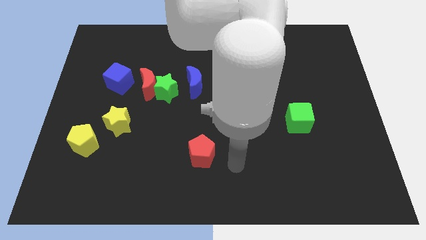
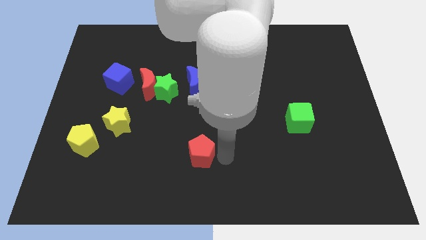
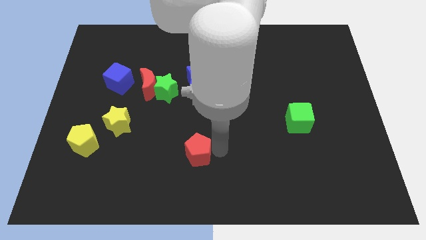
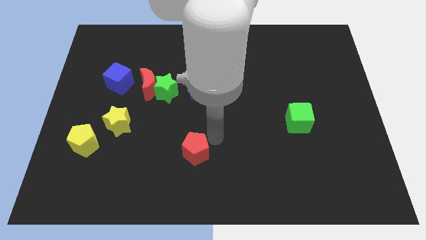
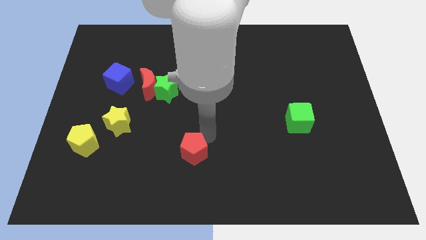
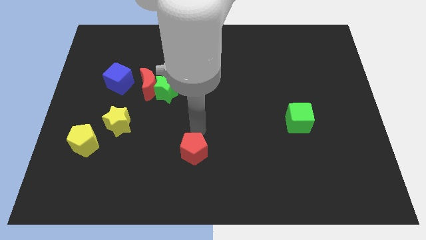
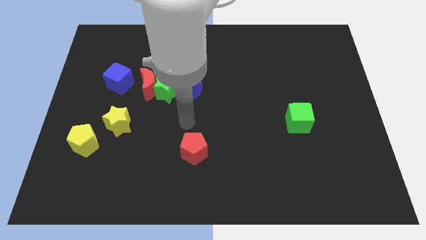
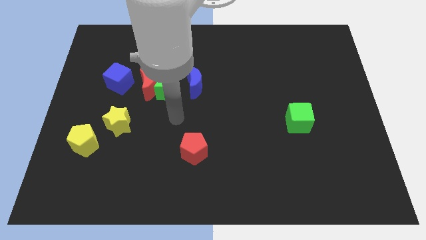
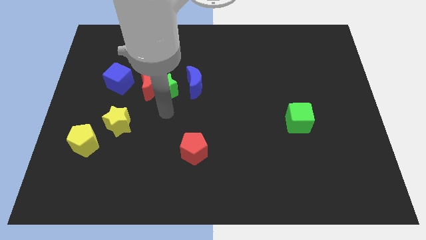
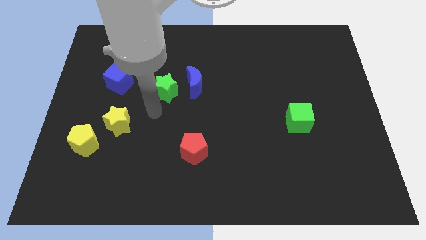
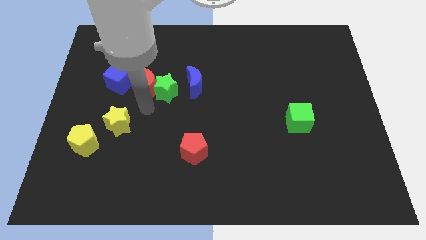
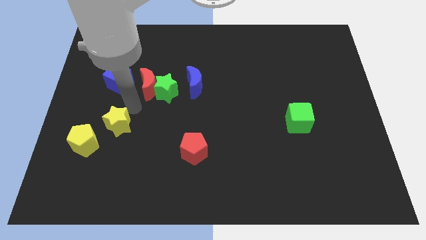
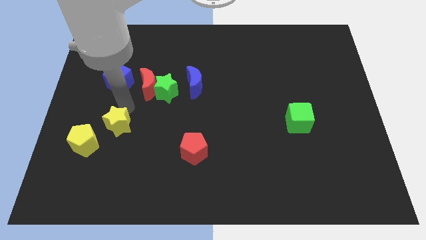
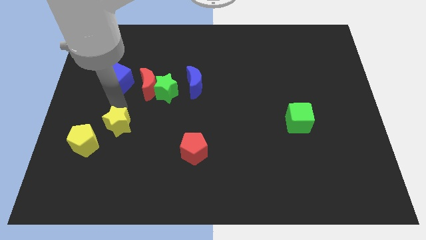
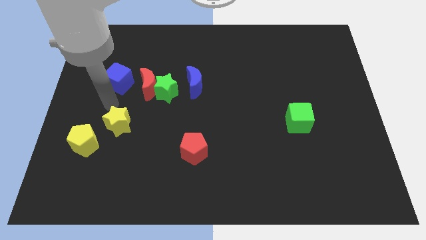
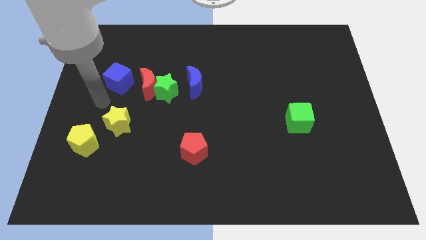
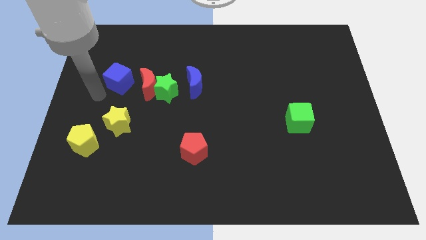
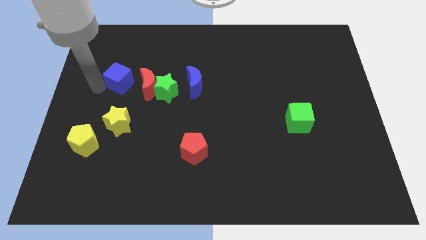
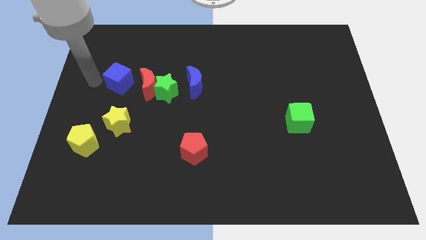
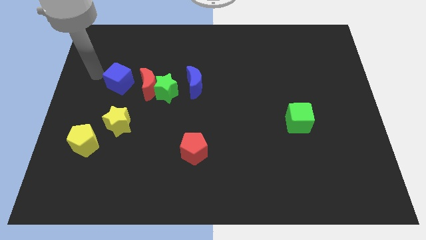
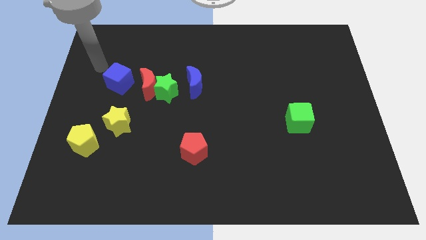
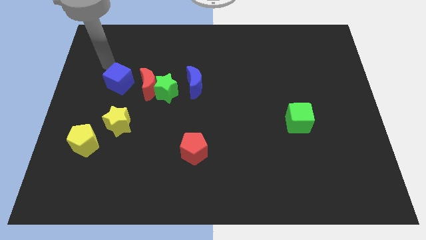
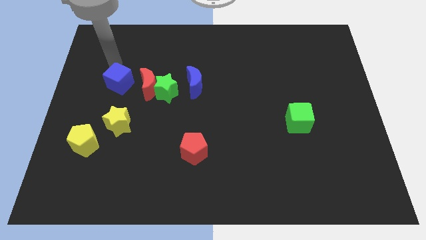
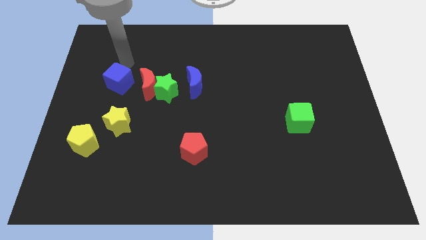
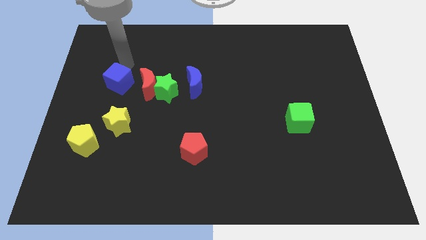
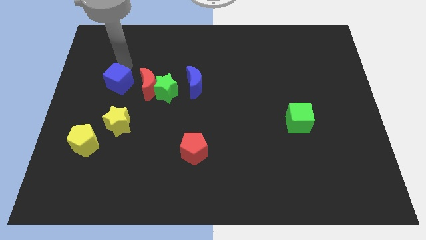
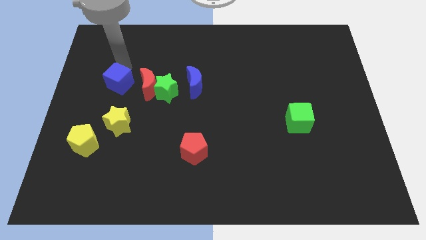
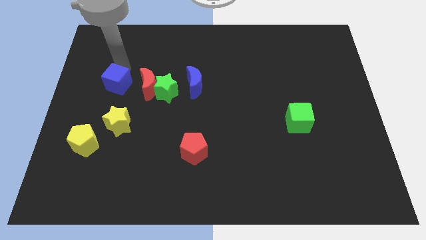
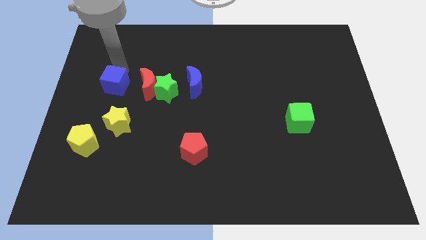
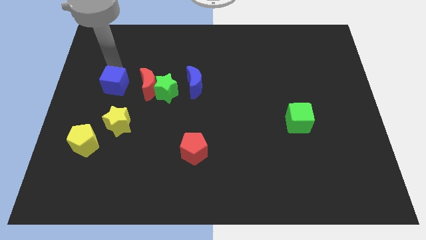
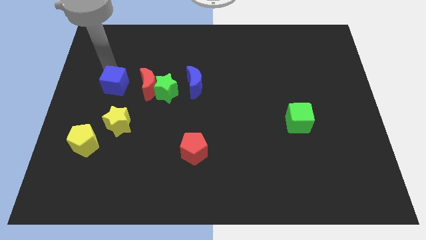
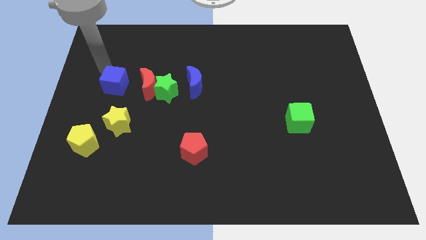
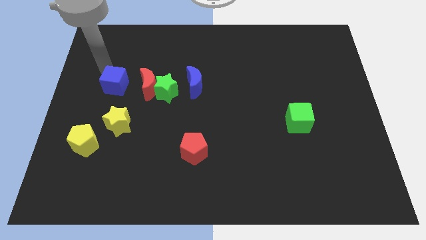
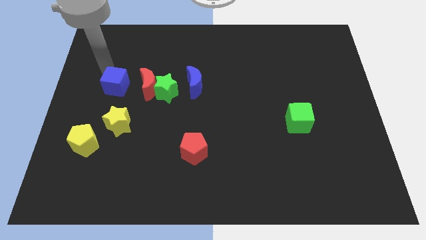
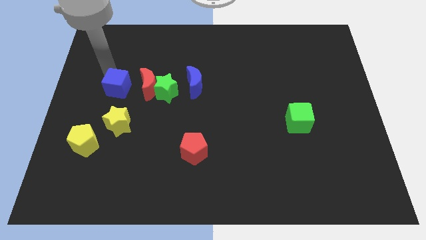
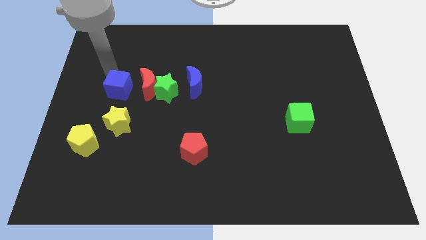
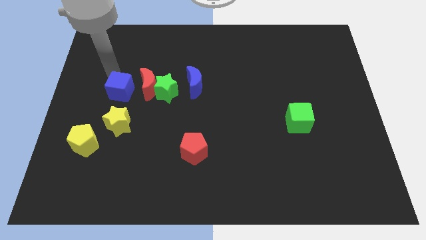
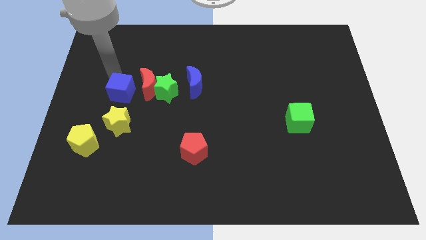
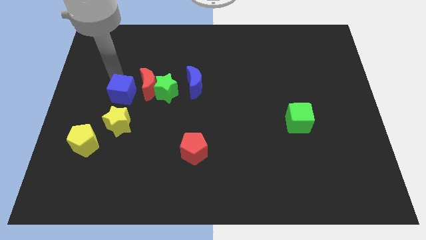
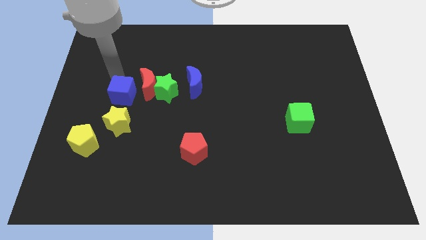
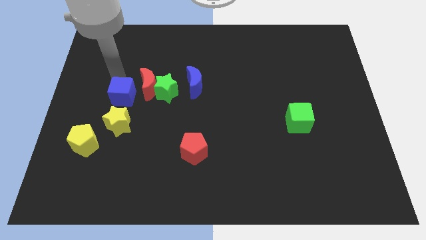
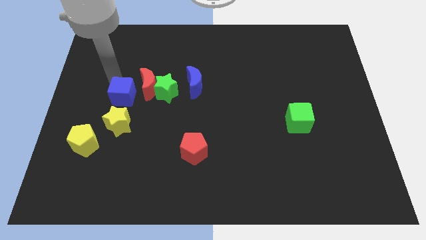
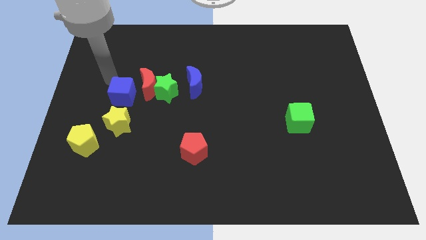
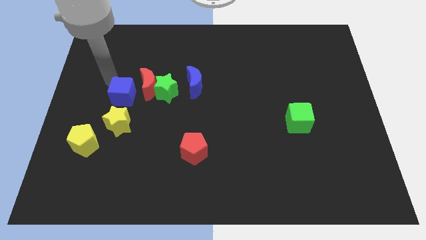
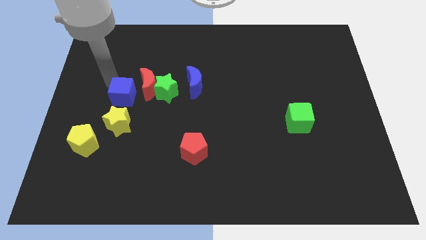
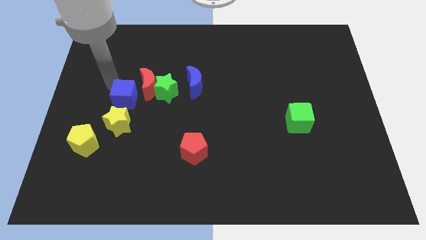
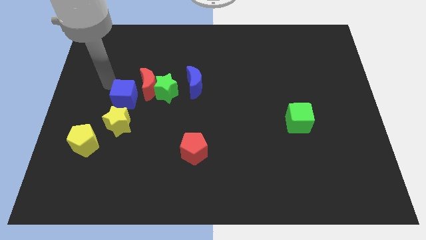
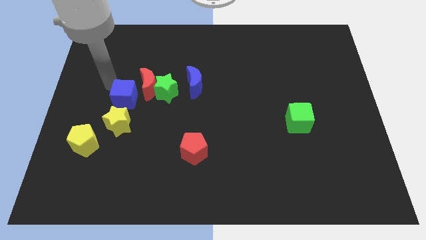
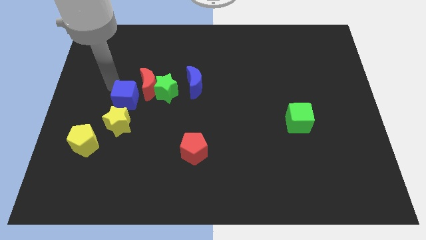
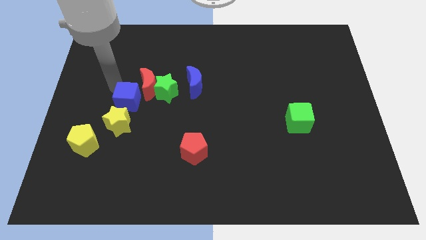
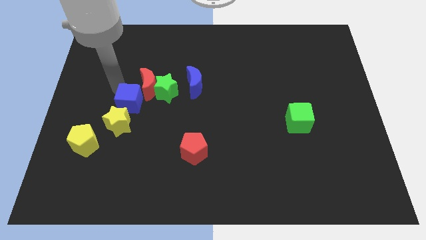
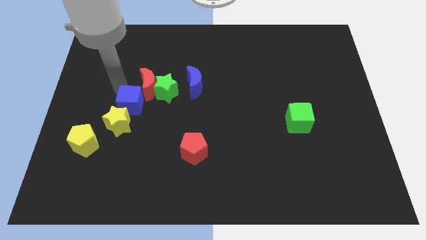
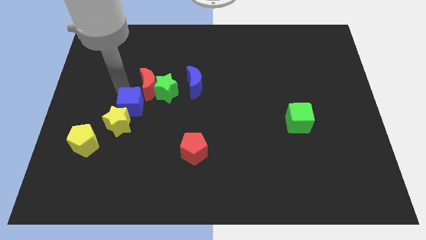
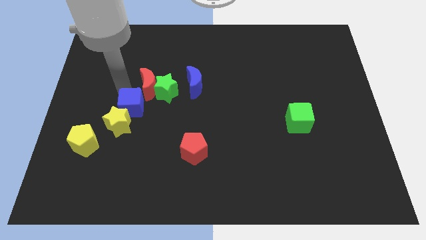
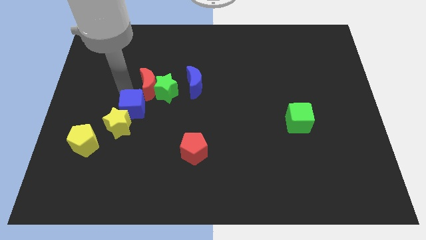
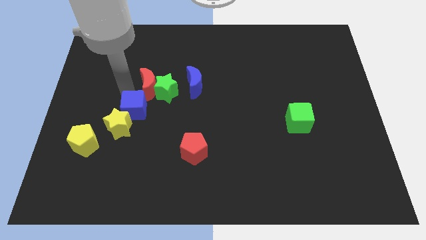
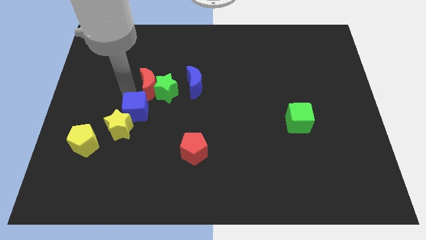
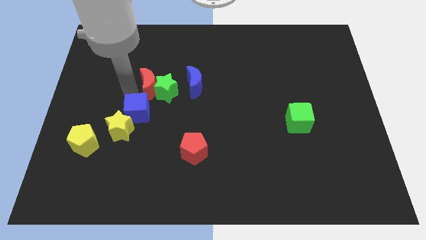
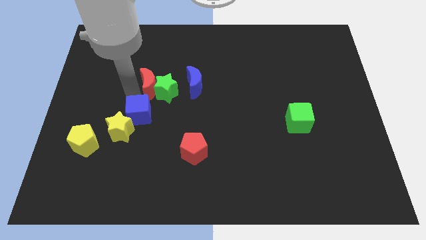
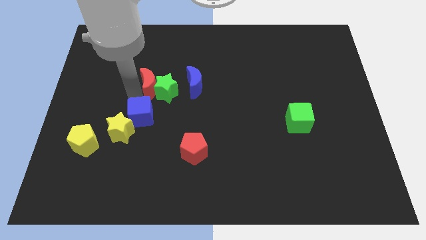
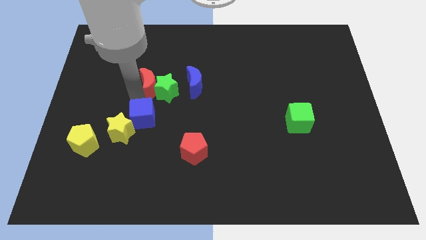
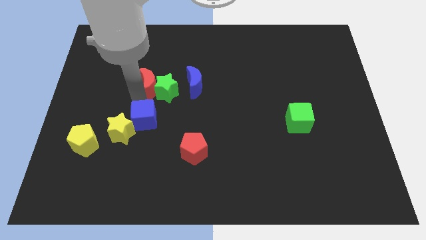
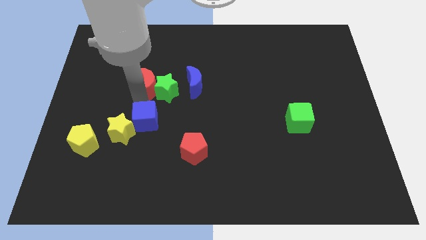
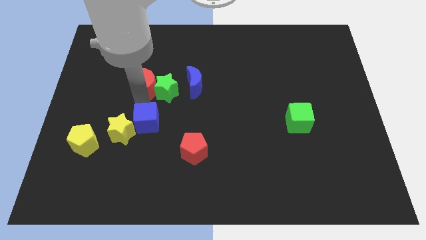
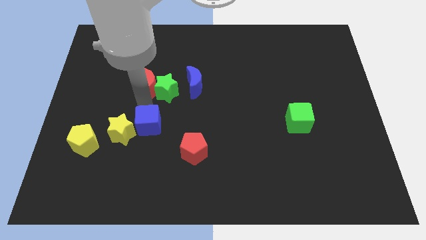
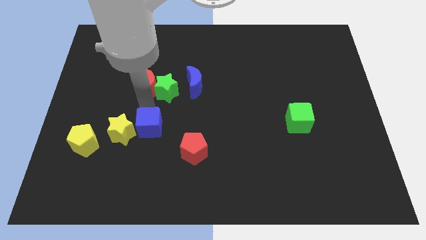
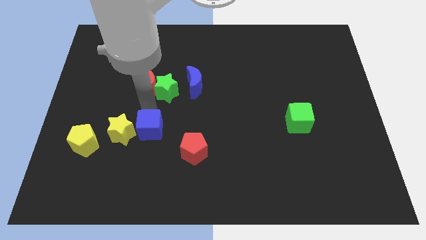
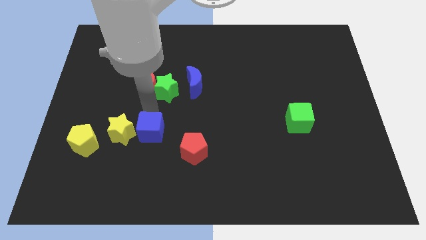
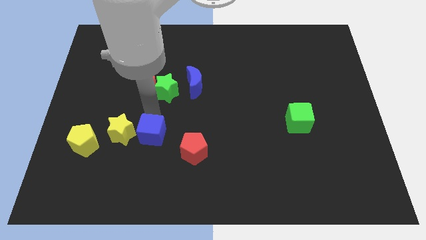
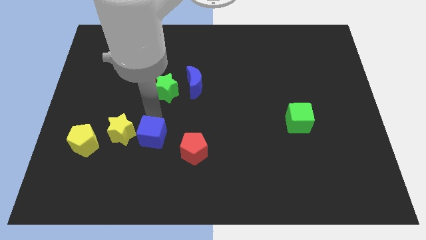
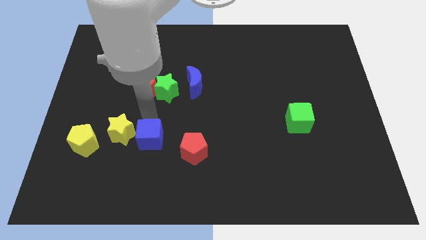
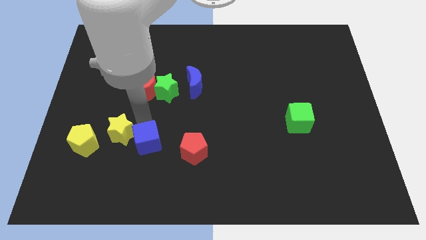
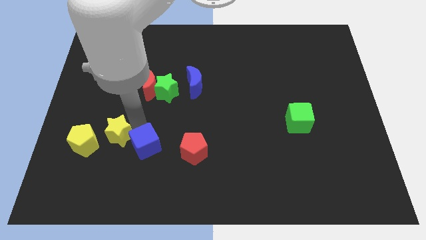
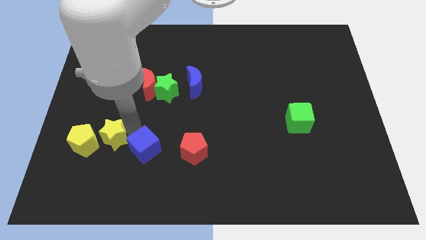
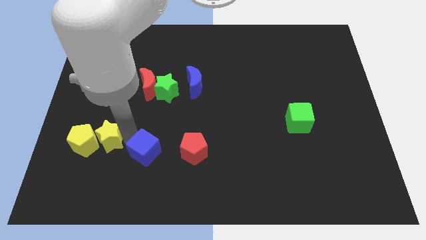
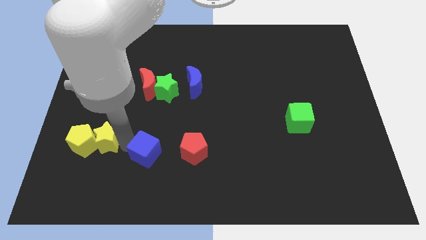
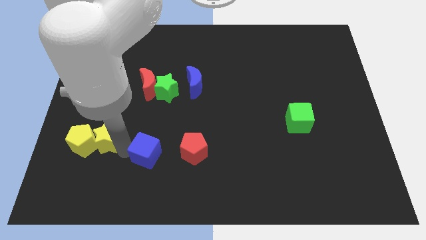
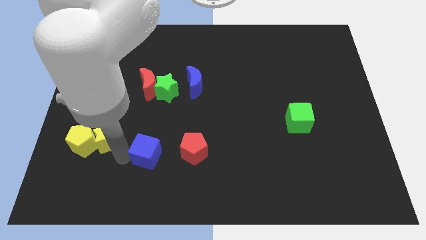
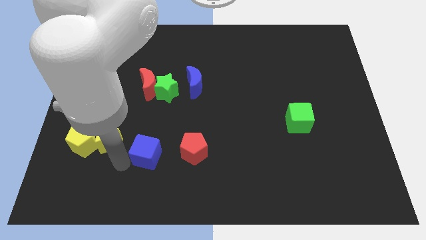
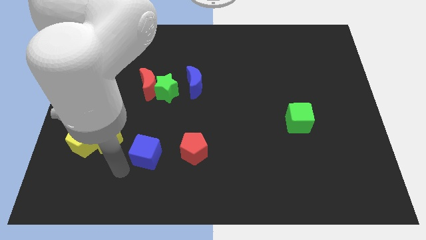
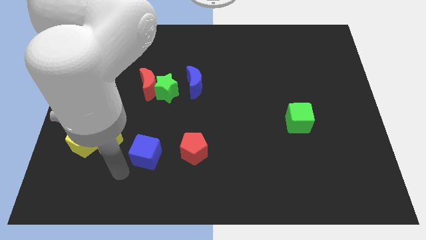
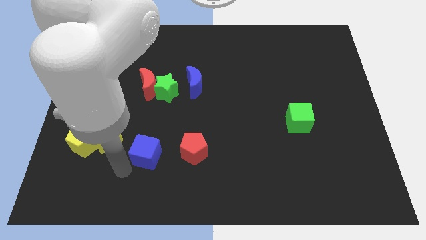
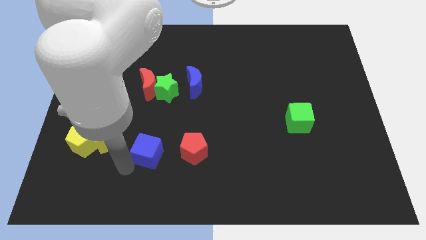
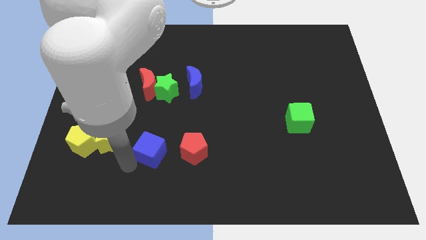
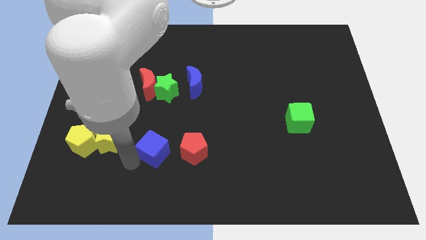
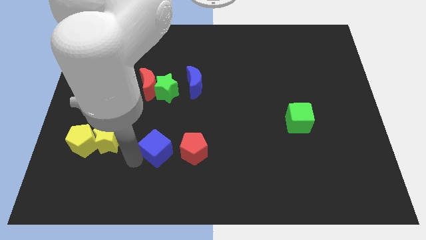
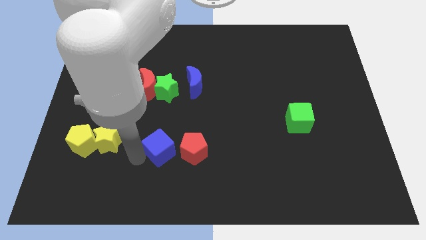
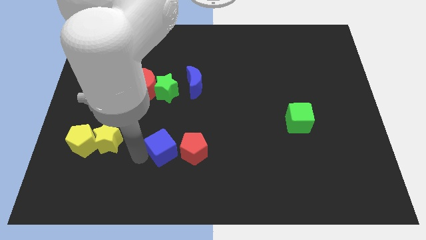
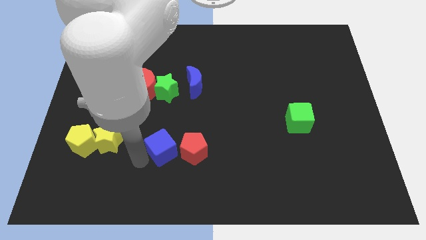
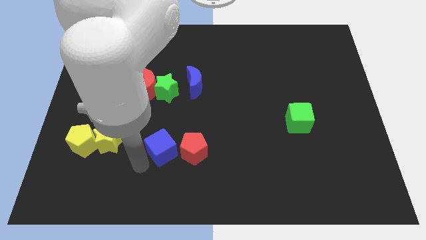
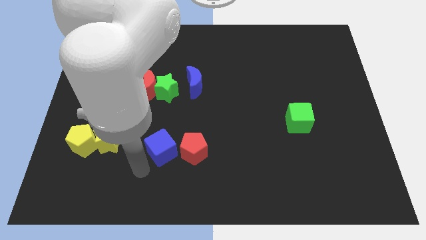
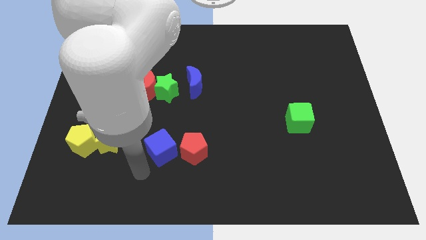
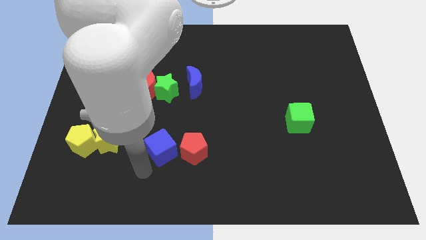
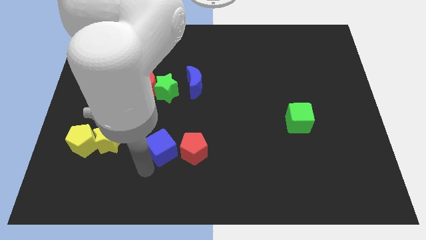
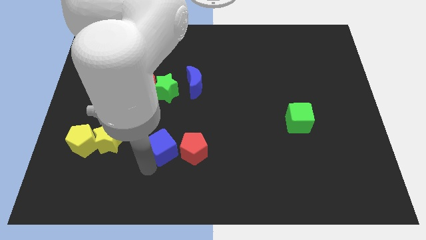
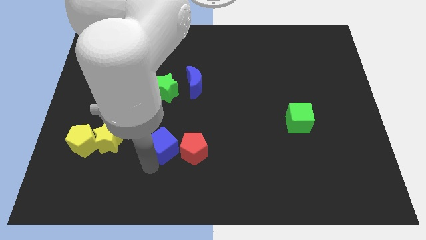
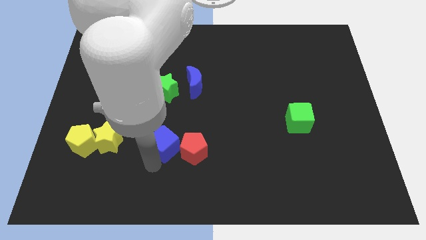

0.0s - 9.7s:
move the blue cube to the red pentagon
